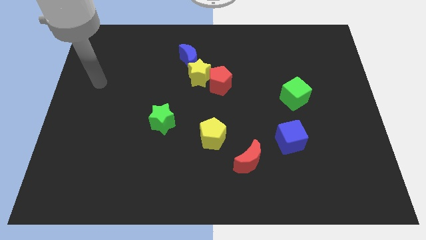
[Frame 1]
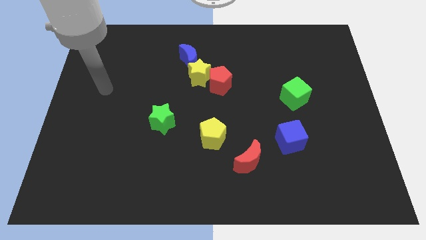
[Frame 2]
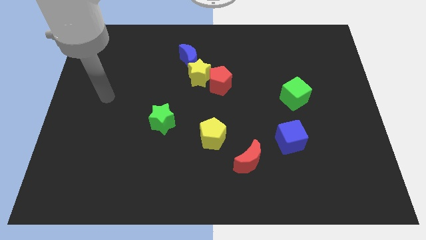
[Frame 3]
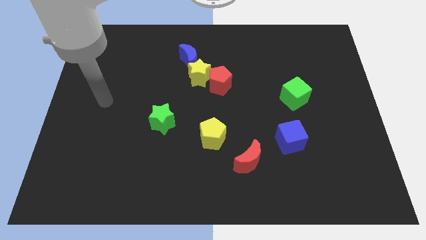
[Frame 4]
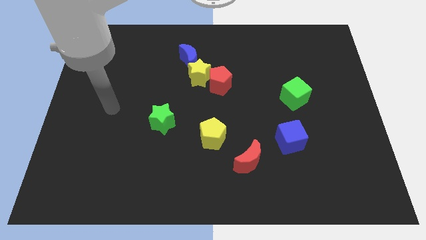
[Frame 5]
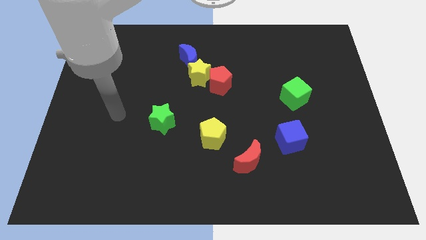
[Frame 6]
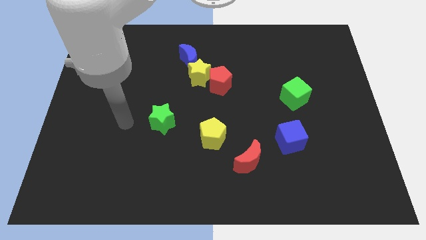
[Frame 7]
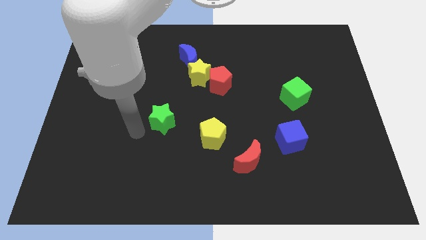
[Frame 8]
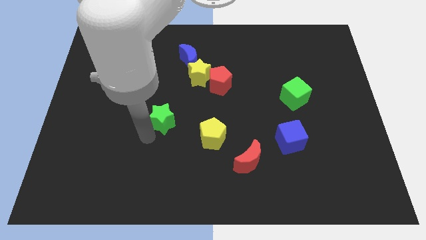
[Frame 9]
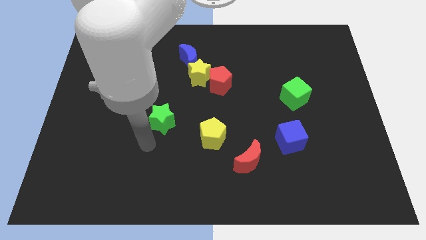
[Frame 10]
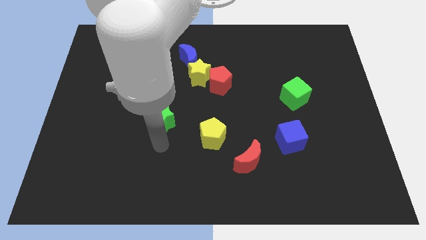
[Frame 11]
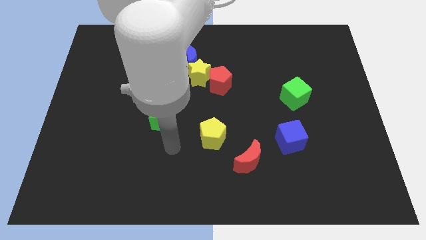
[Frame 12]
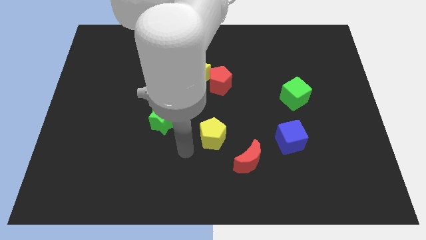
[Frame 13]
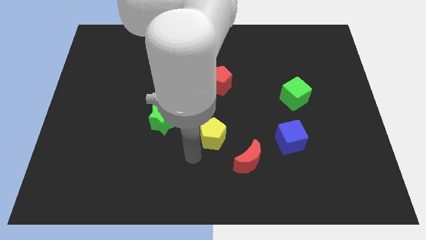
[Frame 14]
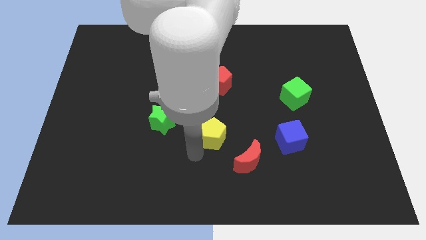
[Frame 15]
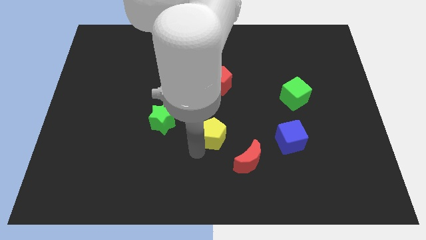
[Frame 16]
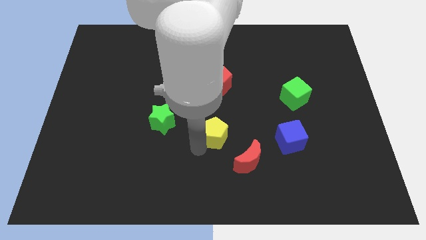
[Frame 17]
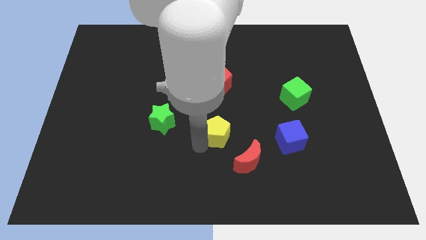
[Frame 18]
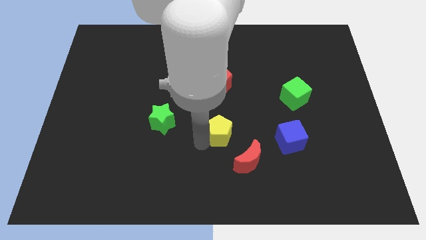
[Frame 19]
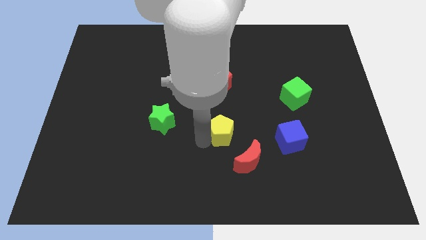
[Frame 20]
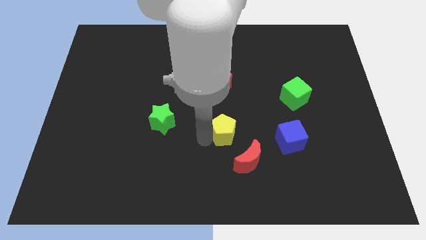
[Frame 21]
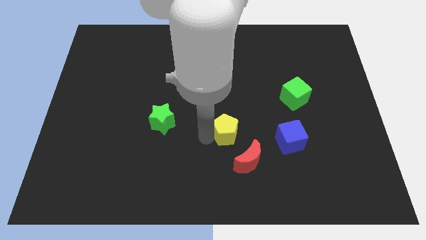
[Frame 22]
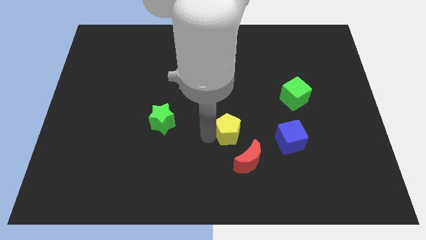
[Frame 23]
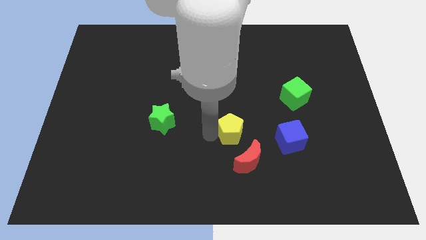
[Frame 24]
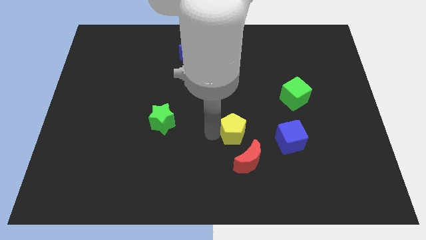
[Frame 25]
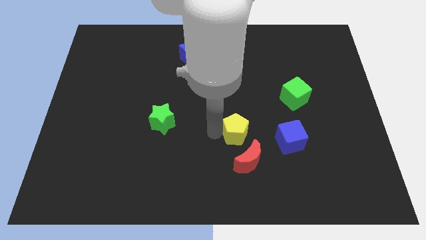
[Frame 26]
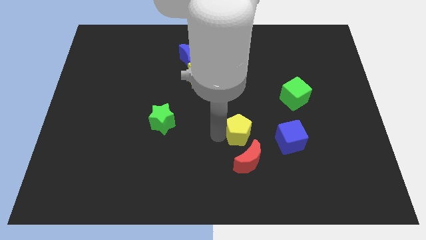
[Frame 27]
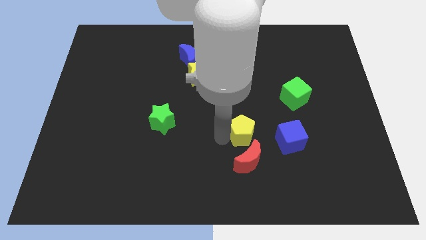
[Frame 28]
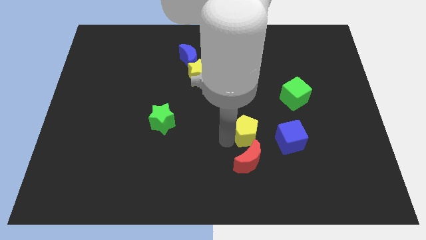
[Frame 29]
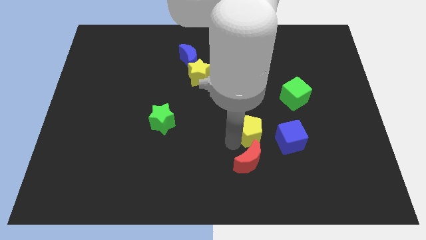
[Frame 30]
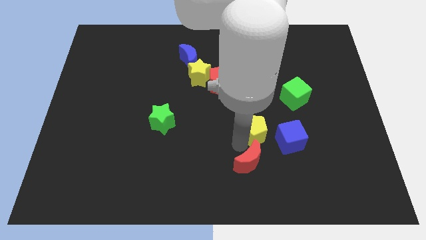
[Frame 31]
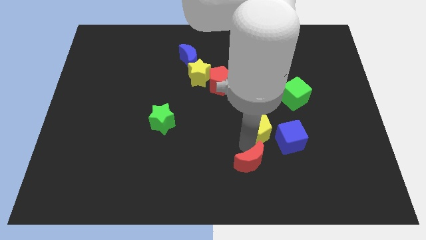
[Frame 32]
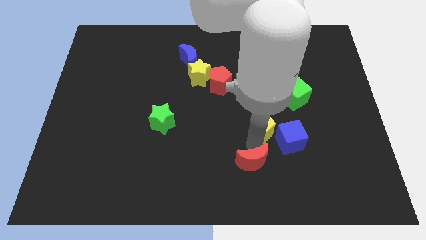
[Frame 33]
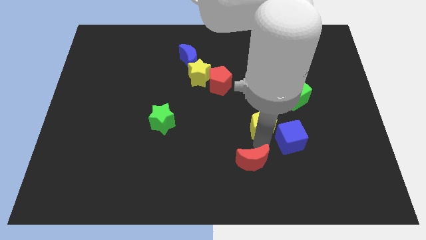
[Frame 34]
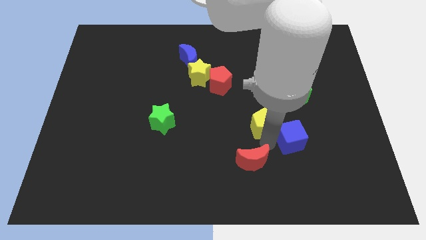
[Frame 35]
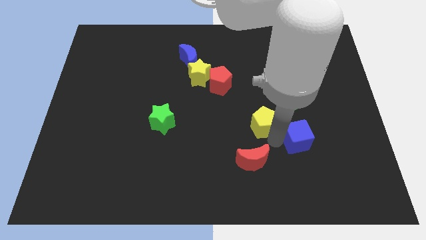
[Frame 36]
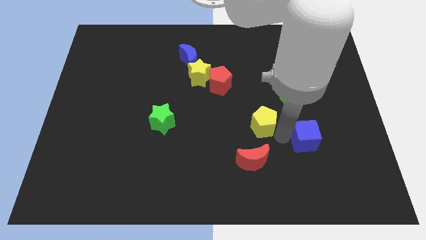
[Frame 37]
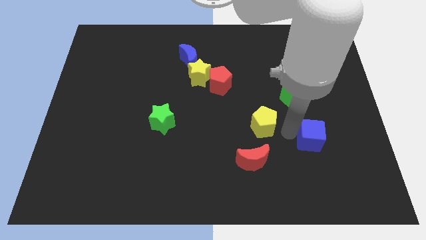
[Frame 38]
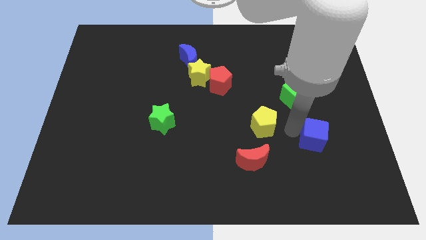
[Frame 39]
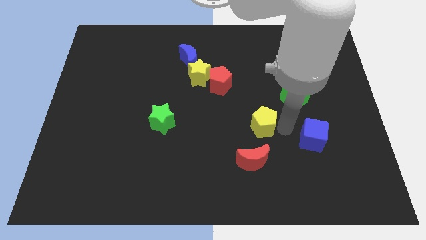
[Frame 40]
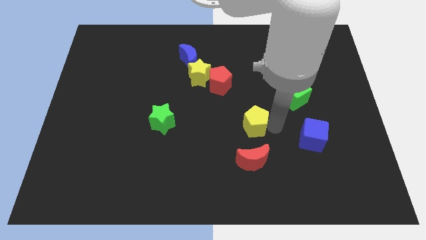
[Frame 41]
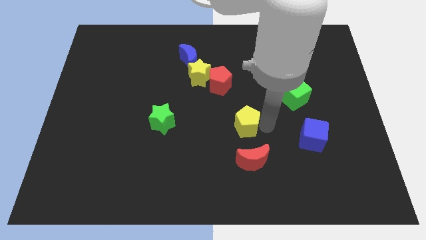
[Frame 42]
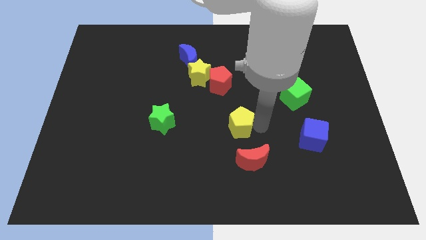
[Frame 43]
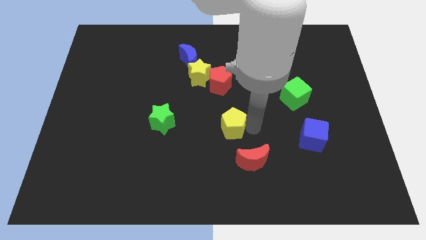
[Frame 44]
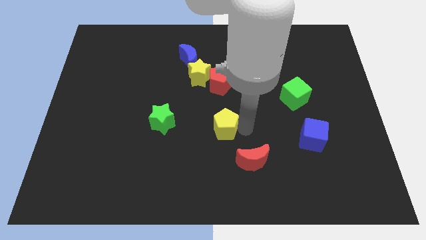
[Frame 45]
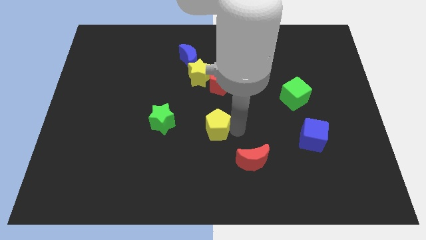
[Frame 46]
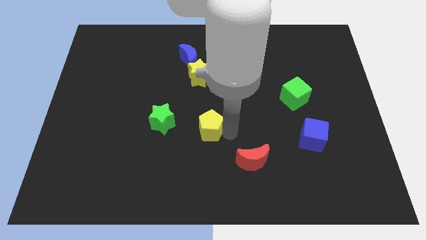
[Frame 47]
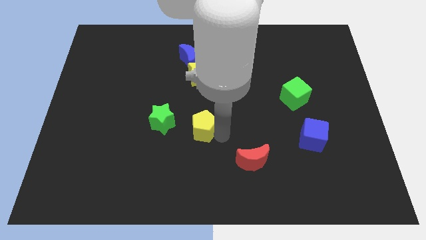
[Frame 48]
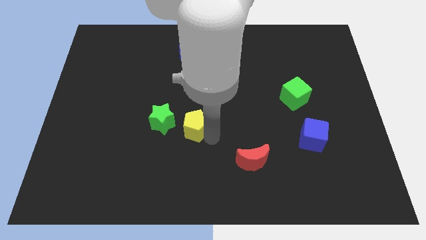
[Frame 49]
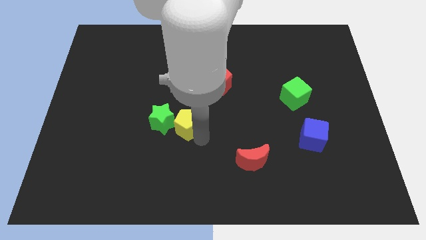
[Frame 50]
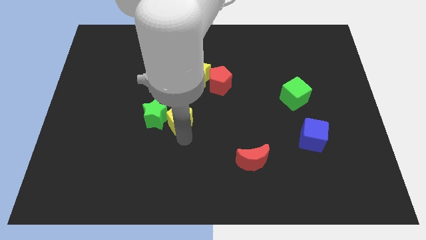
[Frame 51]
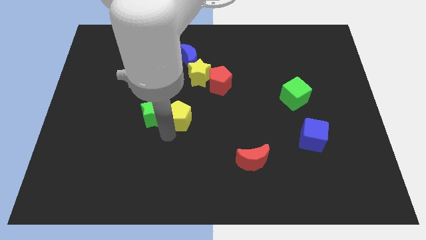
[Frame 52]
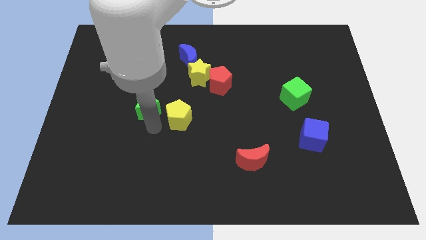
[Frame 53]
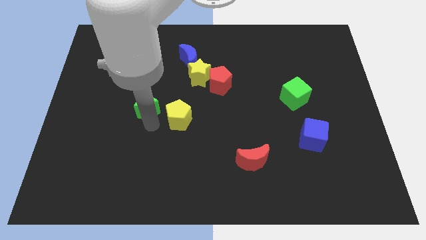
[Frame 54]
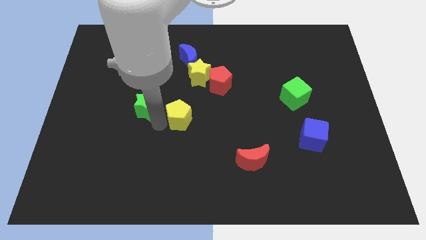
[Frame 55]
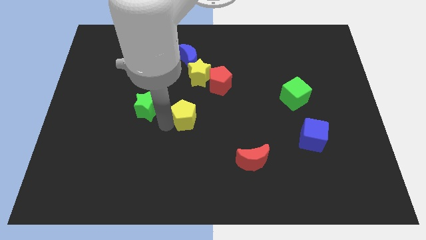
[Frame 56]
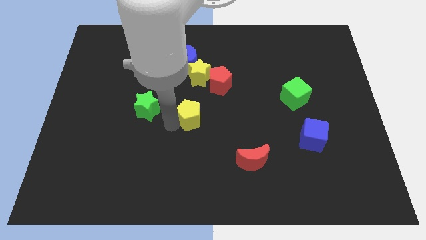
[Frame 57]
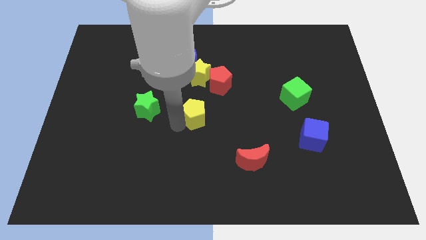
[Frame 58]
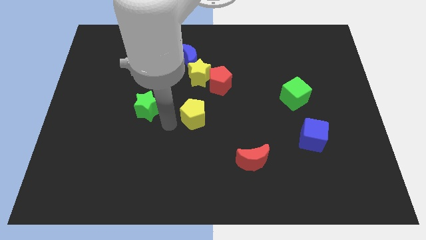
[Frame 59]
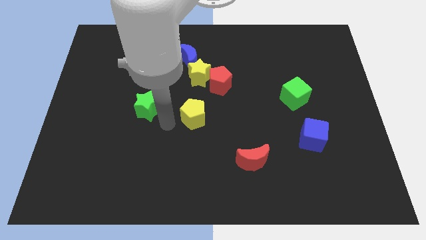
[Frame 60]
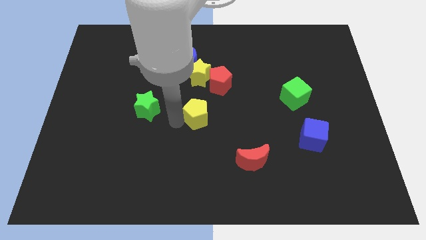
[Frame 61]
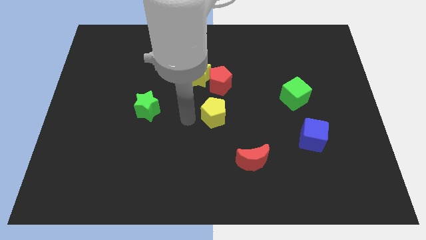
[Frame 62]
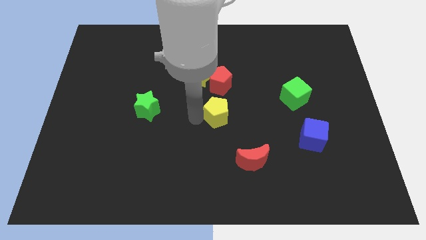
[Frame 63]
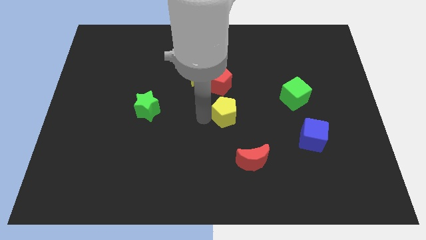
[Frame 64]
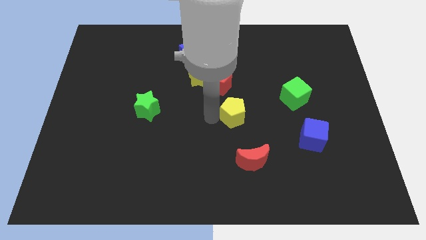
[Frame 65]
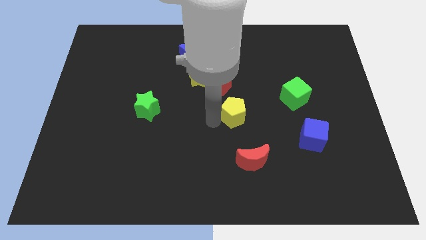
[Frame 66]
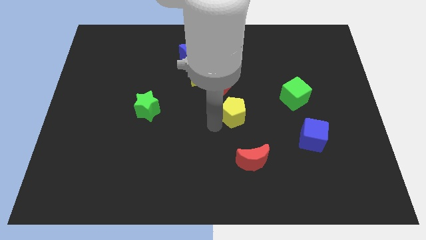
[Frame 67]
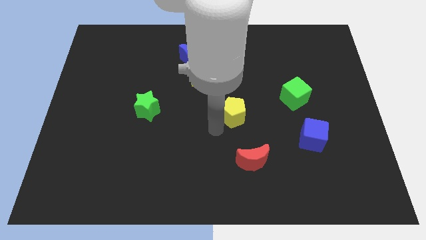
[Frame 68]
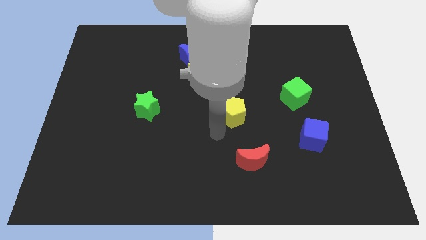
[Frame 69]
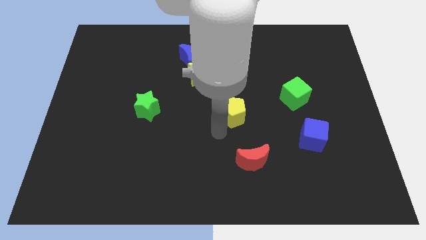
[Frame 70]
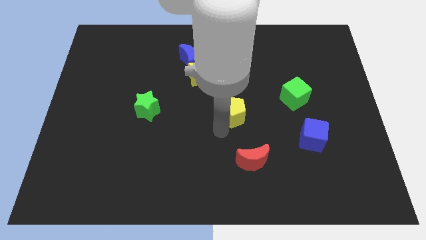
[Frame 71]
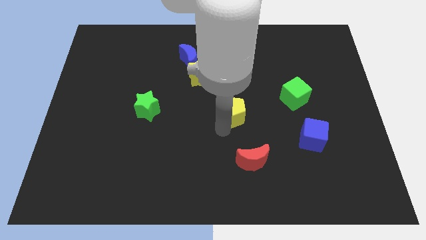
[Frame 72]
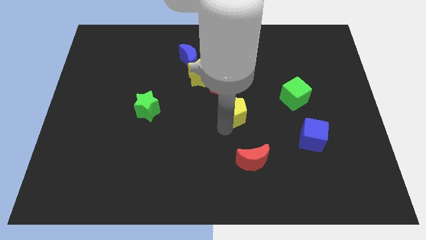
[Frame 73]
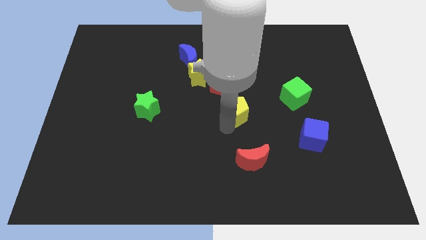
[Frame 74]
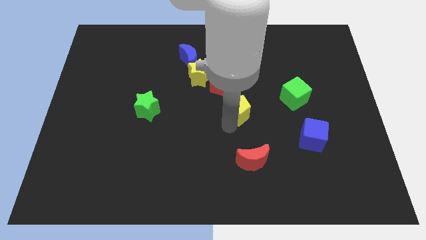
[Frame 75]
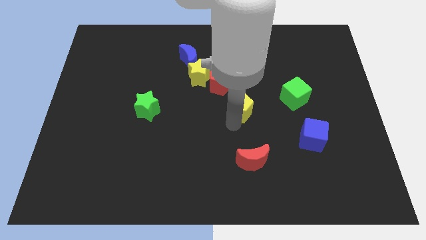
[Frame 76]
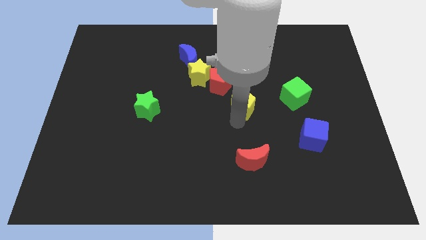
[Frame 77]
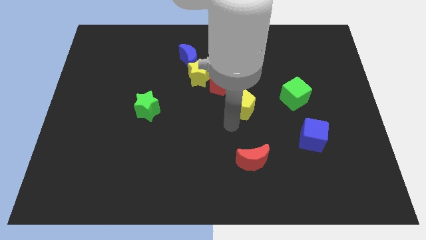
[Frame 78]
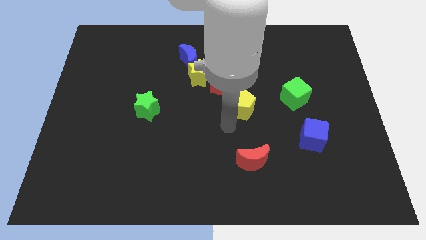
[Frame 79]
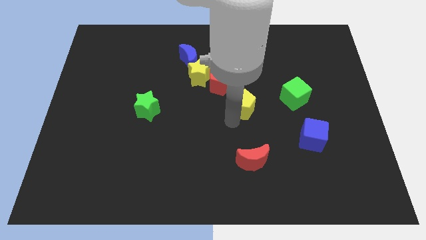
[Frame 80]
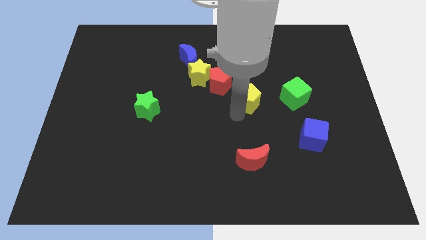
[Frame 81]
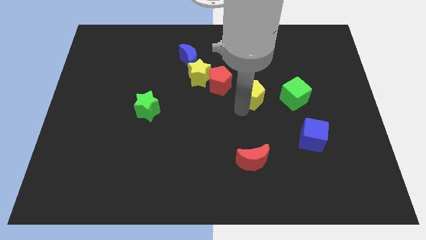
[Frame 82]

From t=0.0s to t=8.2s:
slide the yellow pentagon to the right side of the red pentagon
